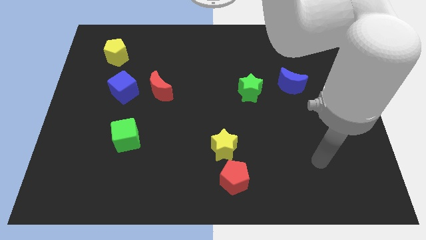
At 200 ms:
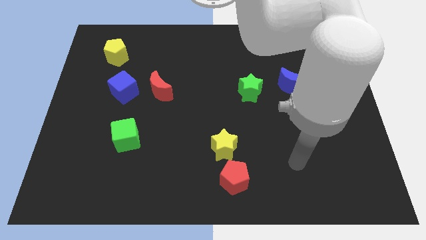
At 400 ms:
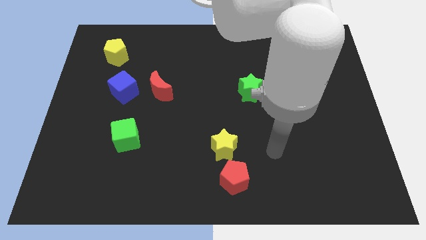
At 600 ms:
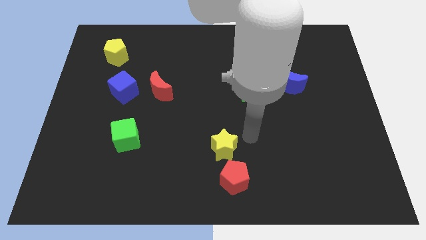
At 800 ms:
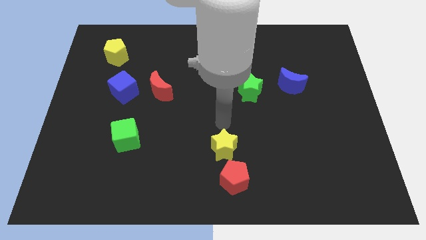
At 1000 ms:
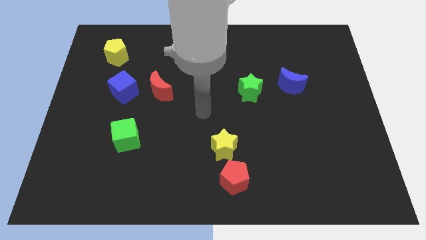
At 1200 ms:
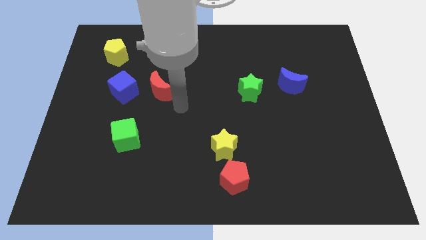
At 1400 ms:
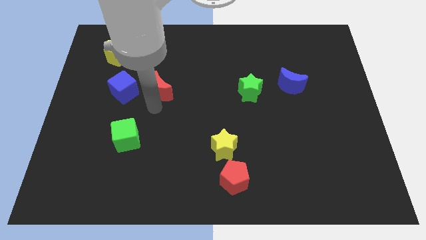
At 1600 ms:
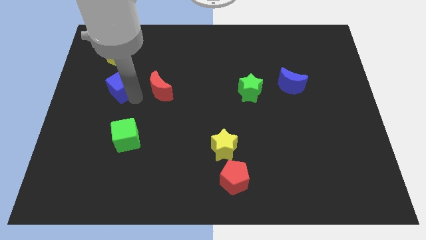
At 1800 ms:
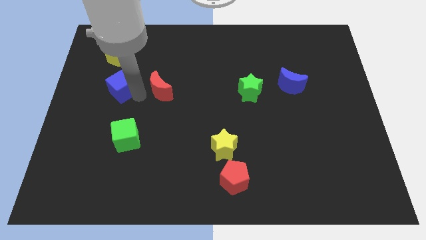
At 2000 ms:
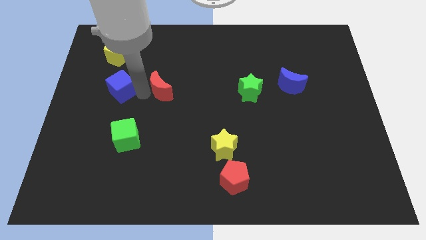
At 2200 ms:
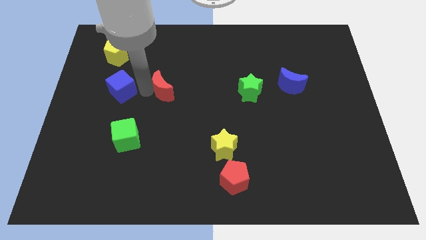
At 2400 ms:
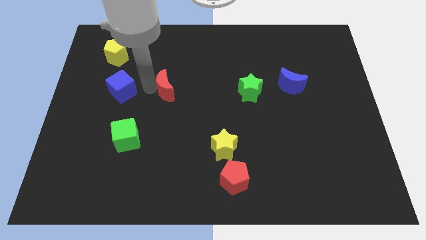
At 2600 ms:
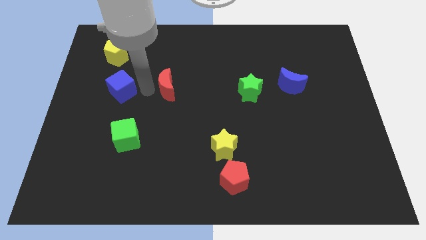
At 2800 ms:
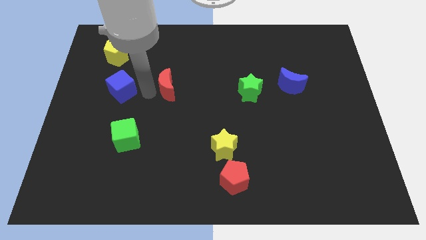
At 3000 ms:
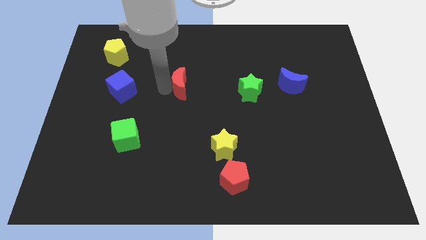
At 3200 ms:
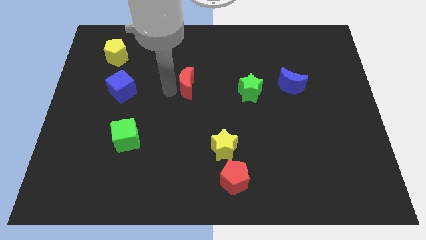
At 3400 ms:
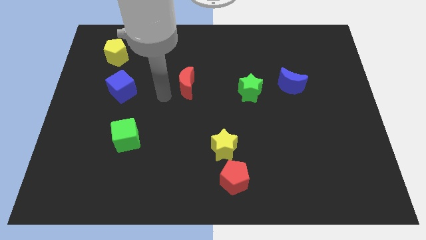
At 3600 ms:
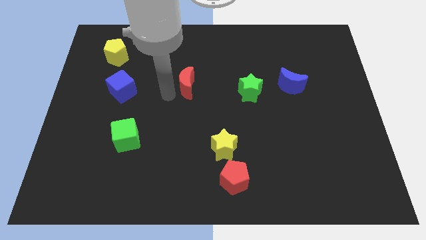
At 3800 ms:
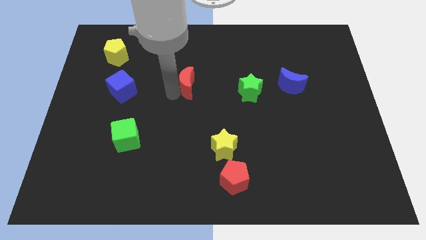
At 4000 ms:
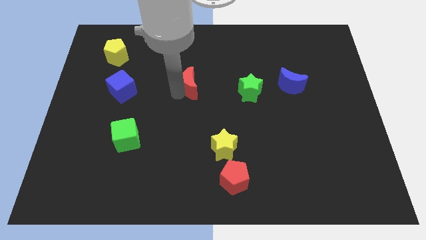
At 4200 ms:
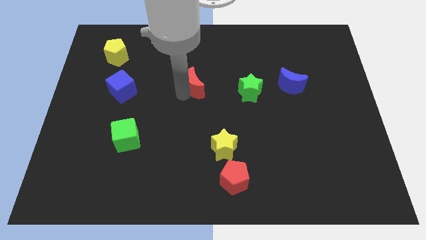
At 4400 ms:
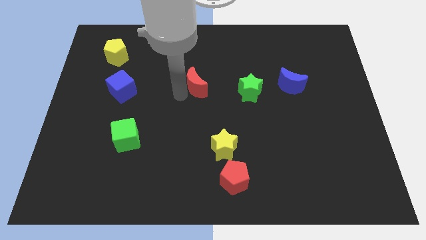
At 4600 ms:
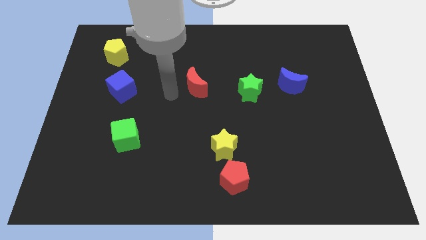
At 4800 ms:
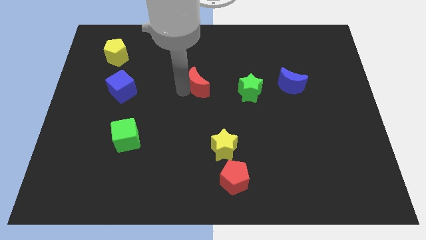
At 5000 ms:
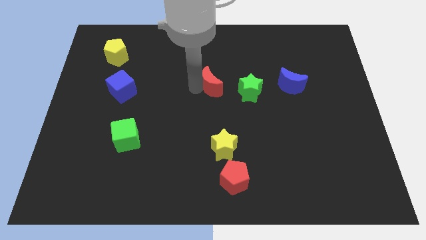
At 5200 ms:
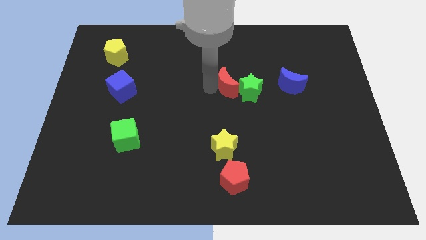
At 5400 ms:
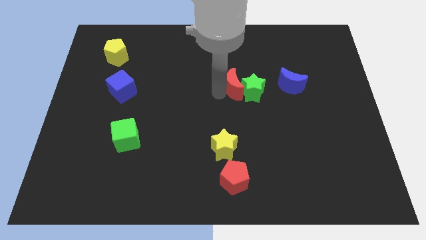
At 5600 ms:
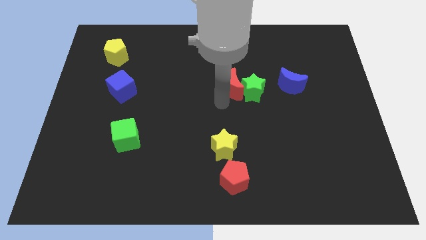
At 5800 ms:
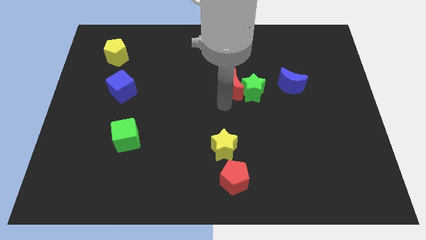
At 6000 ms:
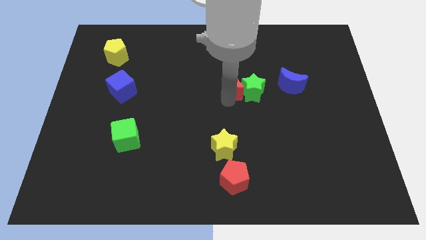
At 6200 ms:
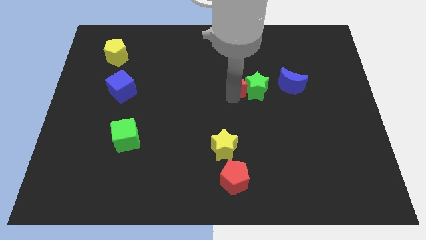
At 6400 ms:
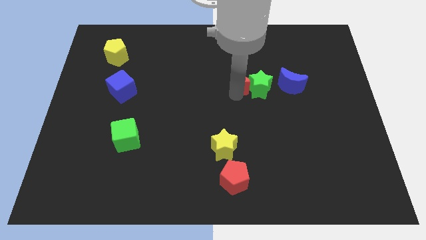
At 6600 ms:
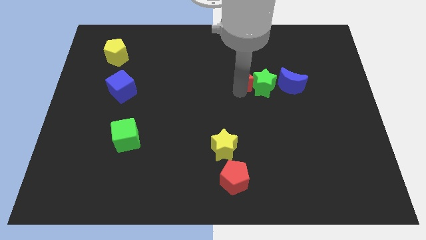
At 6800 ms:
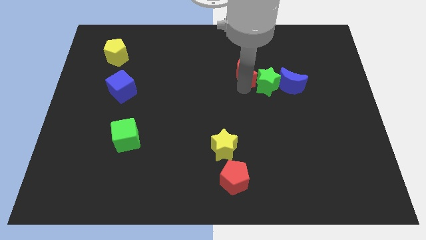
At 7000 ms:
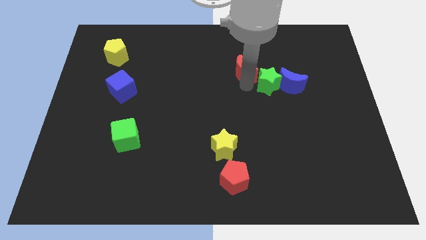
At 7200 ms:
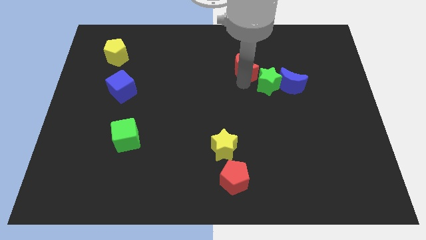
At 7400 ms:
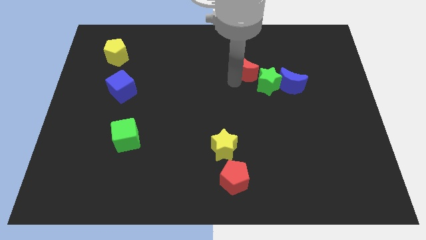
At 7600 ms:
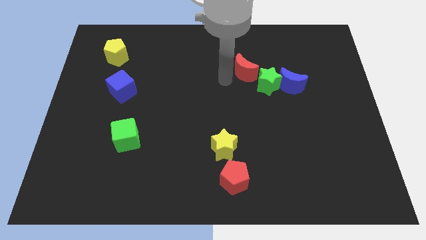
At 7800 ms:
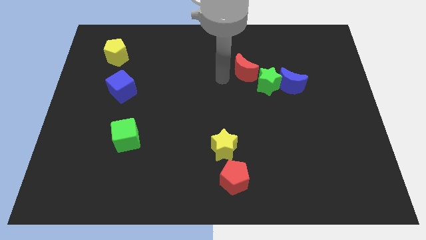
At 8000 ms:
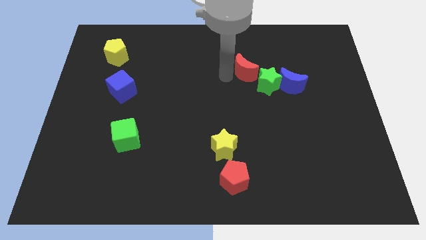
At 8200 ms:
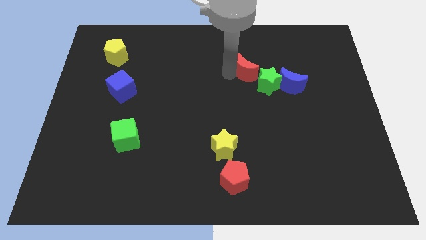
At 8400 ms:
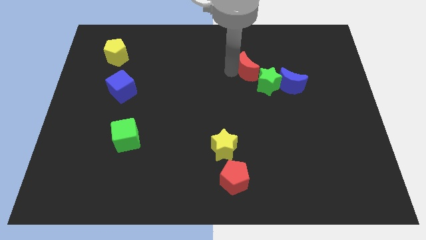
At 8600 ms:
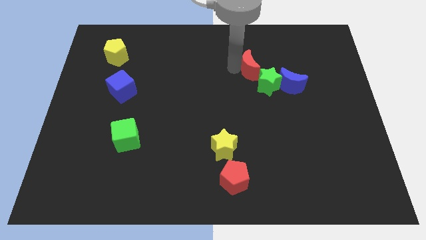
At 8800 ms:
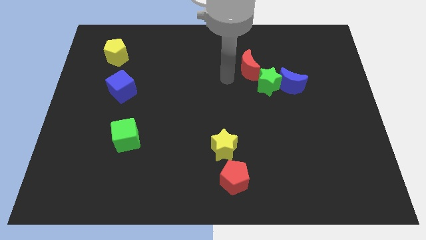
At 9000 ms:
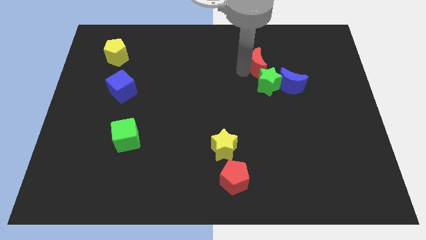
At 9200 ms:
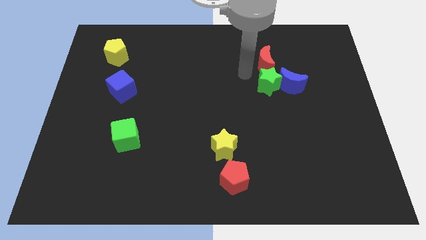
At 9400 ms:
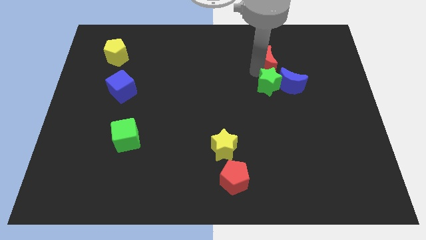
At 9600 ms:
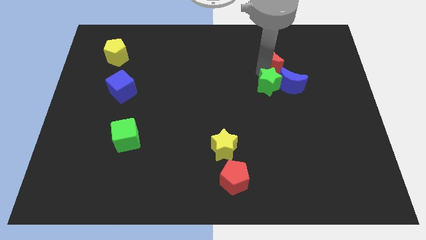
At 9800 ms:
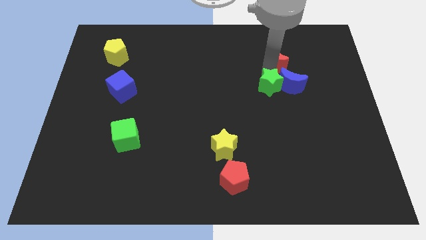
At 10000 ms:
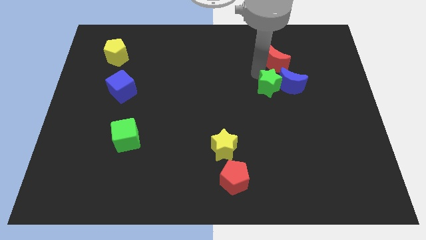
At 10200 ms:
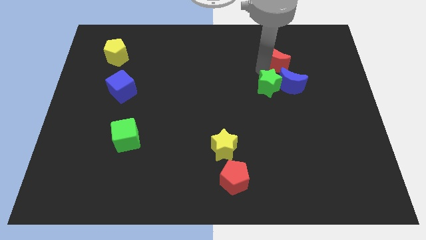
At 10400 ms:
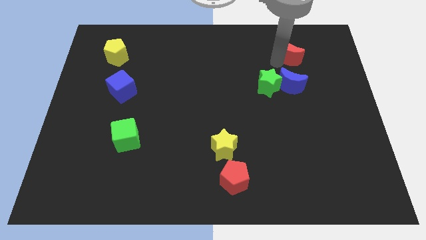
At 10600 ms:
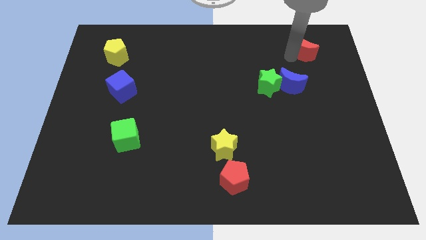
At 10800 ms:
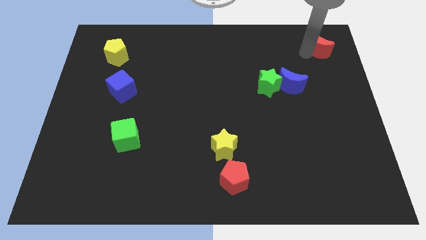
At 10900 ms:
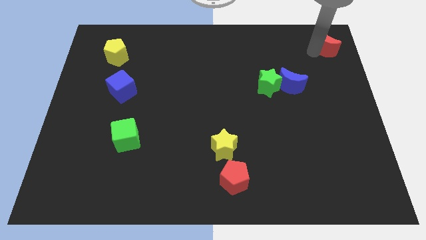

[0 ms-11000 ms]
move the red moon to the top right
